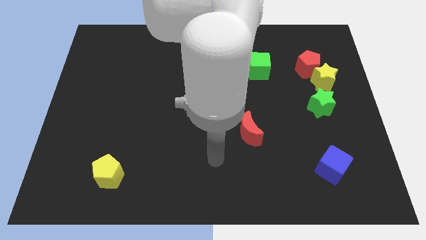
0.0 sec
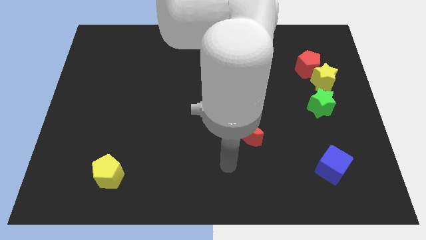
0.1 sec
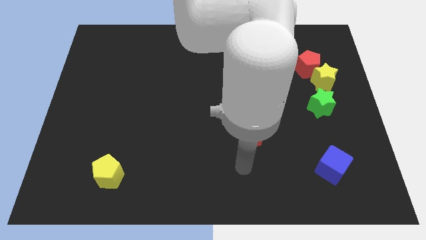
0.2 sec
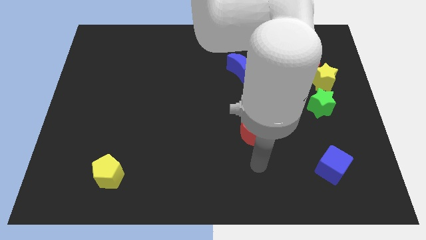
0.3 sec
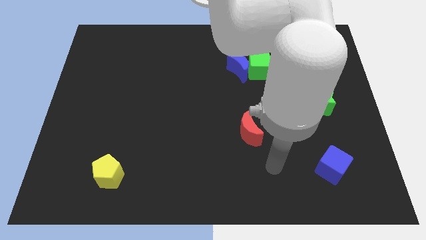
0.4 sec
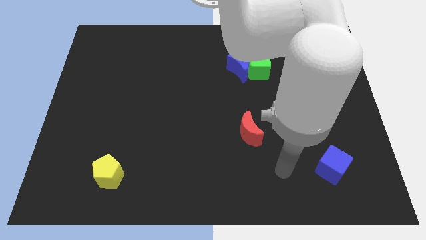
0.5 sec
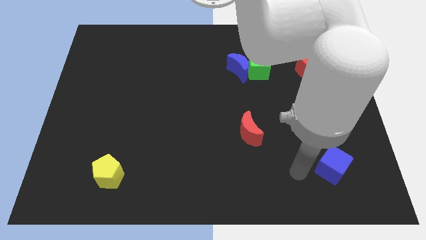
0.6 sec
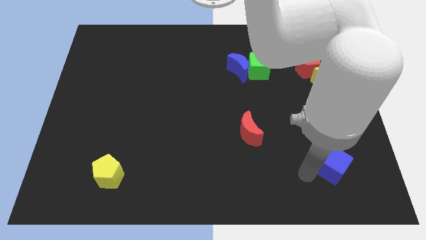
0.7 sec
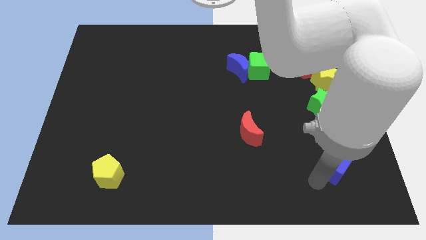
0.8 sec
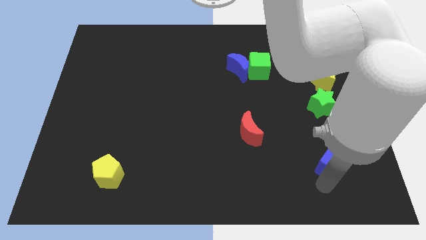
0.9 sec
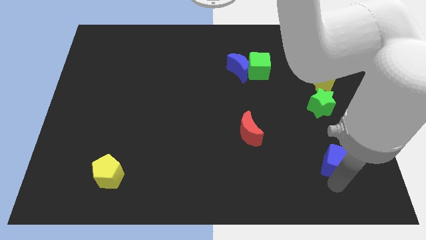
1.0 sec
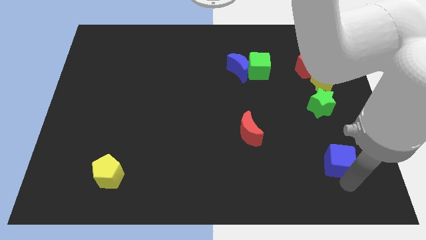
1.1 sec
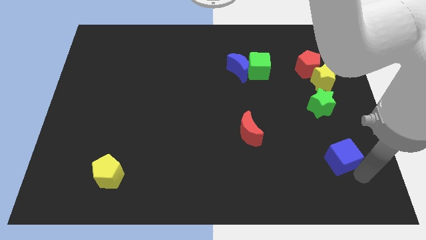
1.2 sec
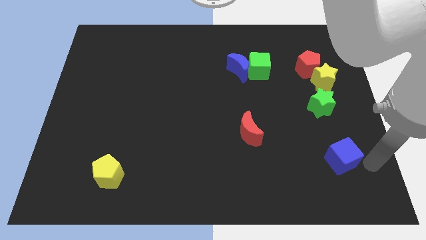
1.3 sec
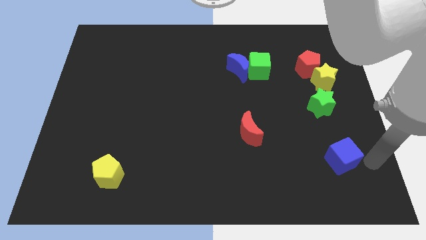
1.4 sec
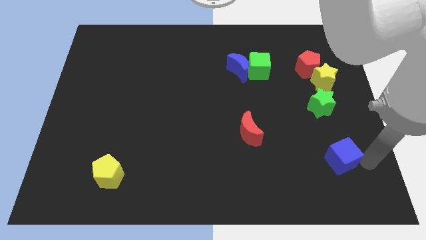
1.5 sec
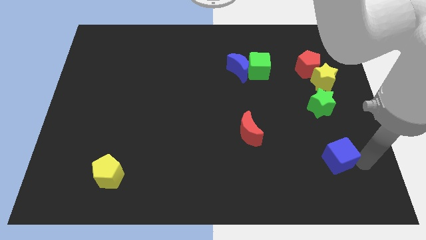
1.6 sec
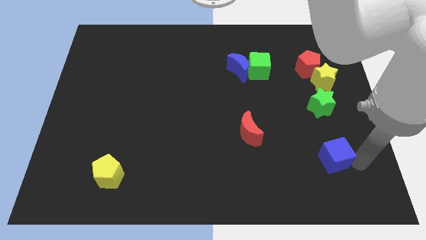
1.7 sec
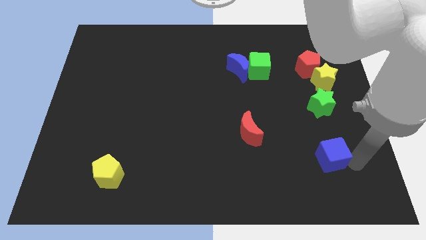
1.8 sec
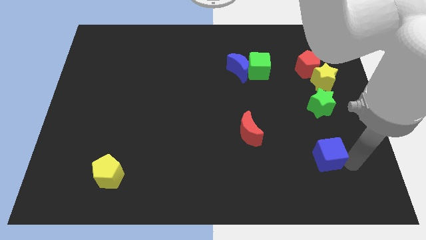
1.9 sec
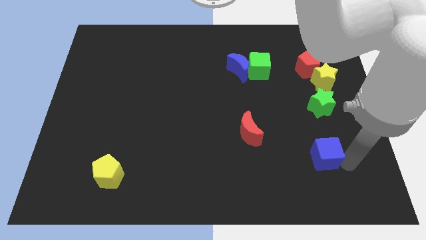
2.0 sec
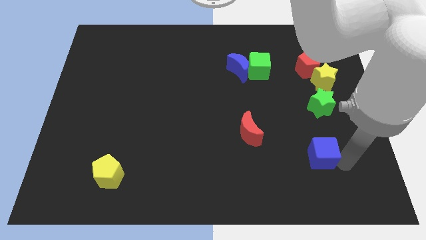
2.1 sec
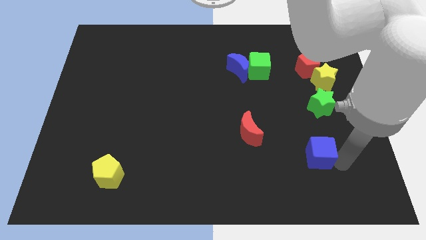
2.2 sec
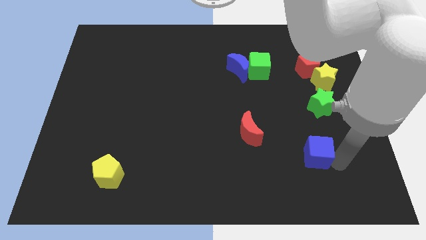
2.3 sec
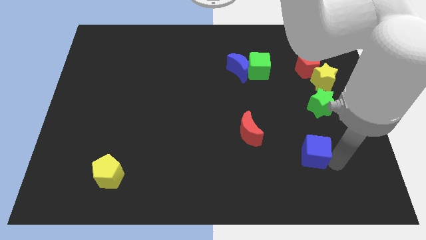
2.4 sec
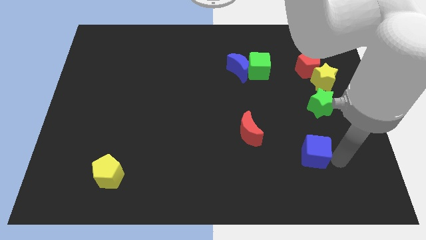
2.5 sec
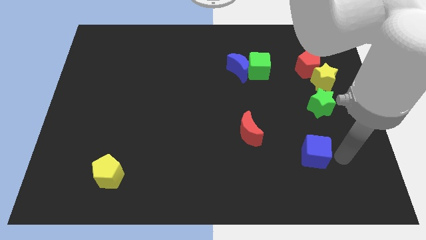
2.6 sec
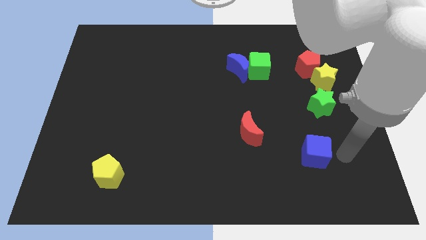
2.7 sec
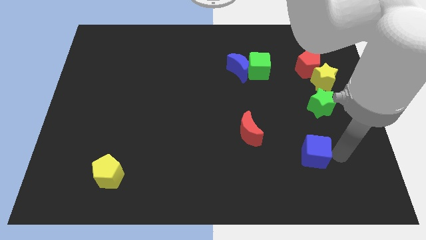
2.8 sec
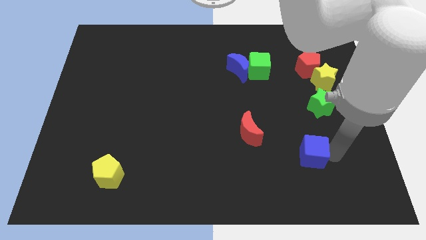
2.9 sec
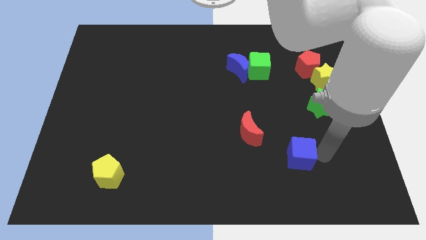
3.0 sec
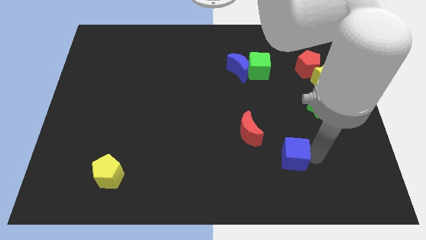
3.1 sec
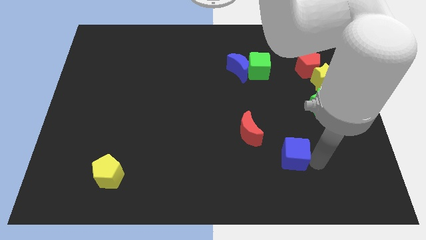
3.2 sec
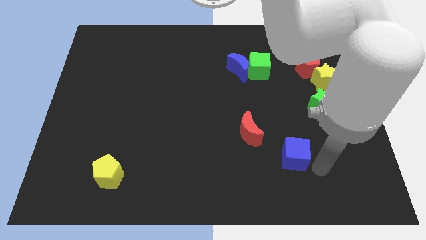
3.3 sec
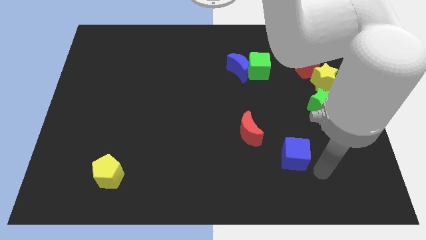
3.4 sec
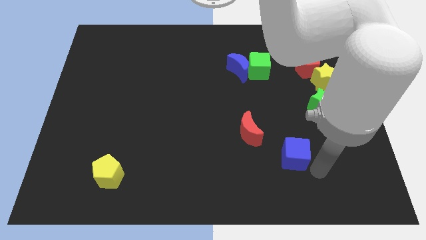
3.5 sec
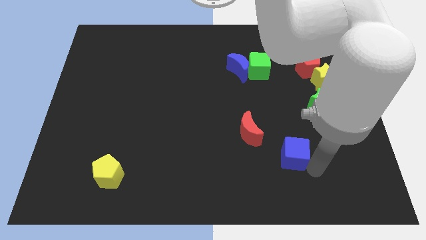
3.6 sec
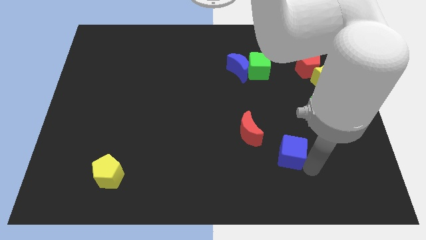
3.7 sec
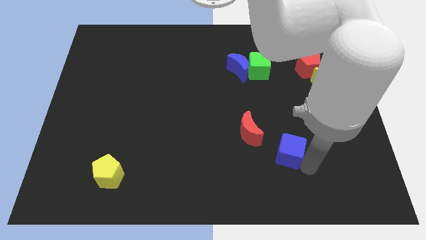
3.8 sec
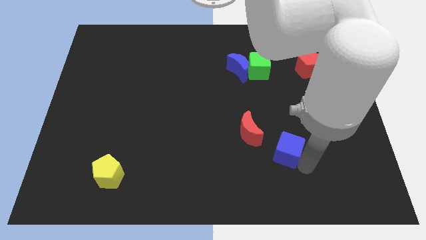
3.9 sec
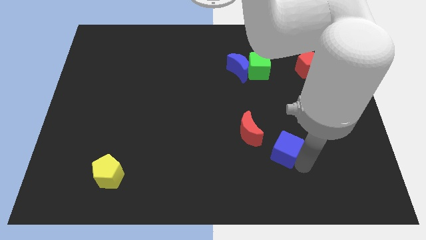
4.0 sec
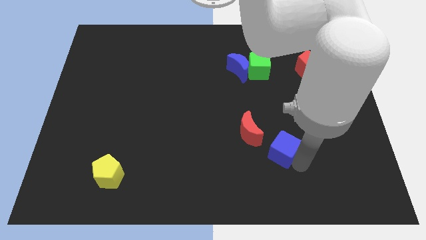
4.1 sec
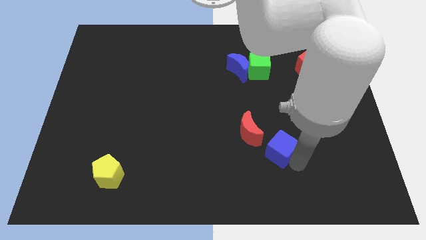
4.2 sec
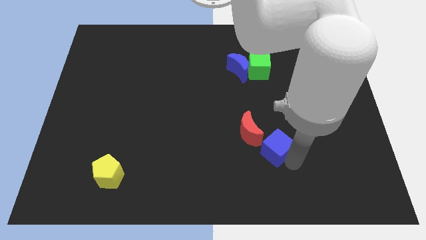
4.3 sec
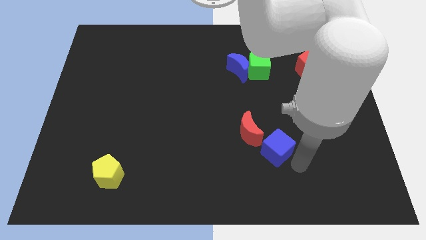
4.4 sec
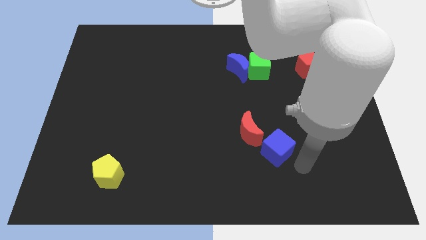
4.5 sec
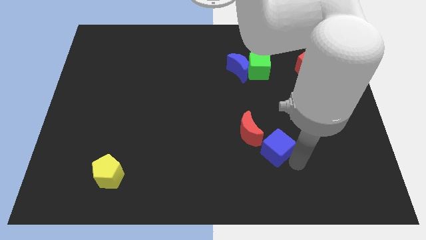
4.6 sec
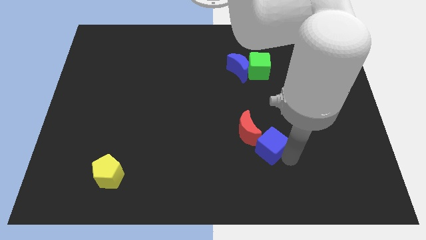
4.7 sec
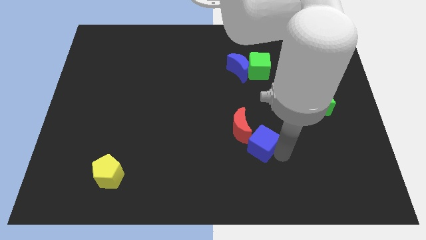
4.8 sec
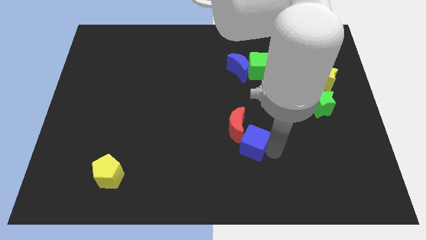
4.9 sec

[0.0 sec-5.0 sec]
push the blue cube close to the red moon

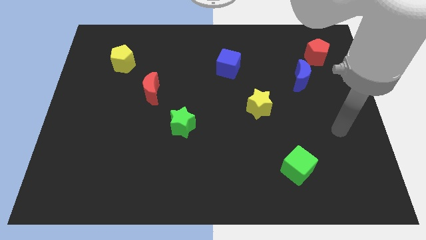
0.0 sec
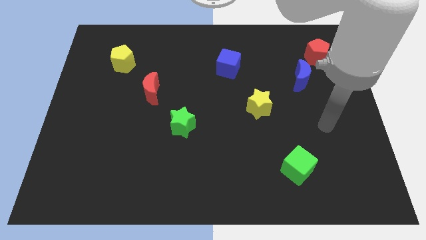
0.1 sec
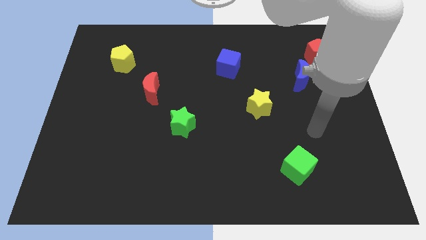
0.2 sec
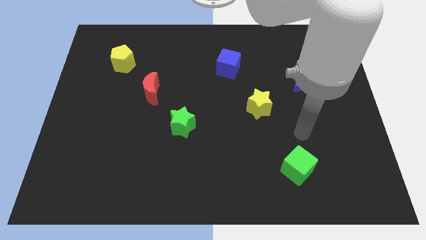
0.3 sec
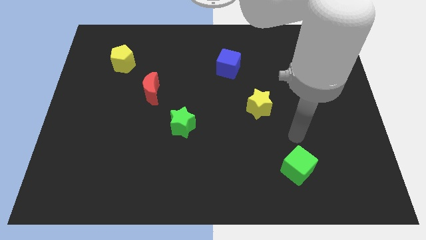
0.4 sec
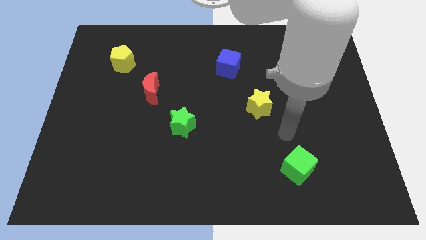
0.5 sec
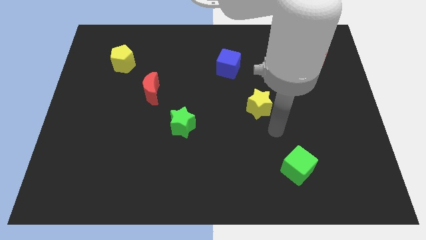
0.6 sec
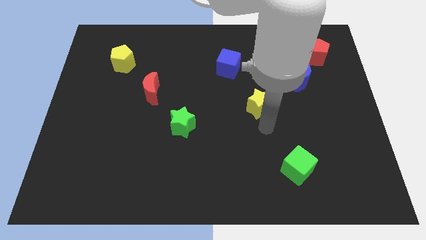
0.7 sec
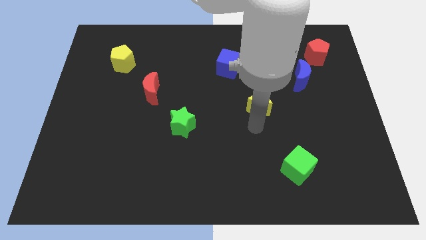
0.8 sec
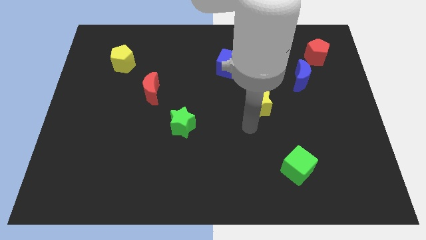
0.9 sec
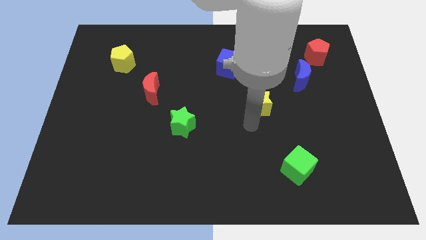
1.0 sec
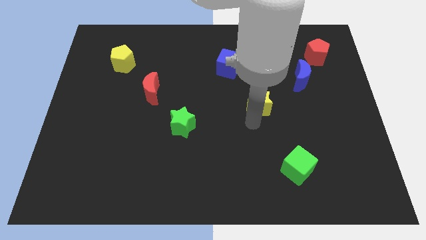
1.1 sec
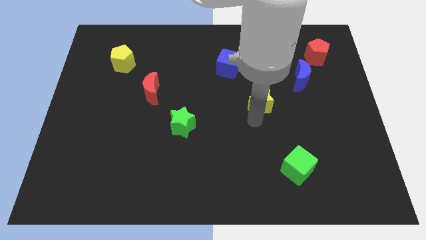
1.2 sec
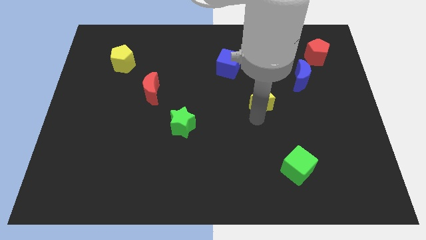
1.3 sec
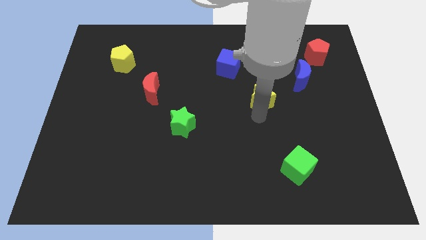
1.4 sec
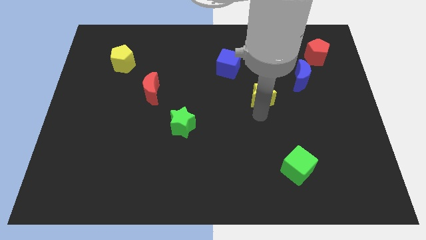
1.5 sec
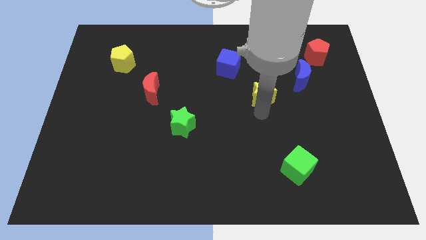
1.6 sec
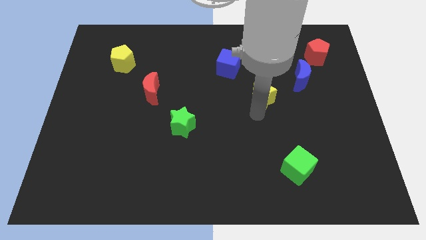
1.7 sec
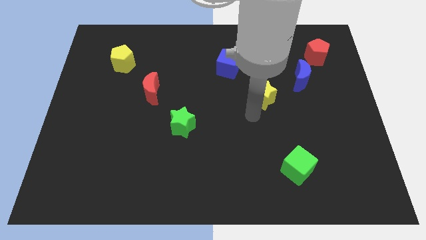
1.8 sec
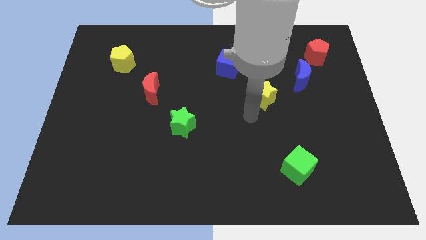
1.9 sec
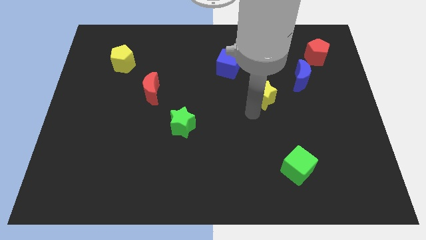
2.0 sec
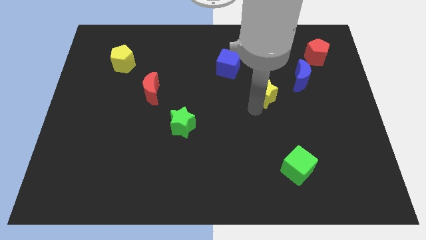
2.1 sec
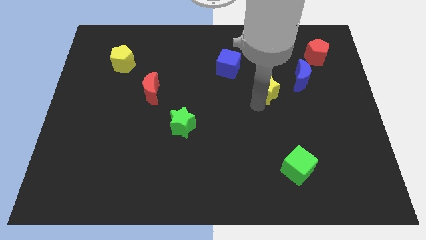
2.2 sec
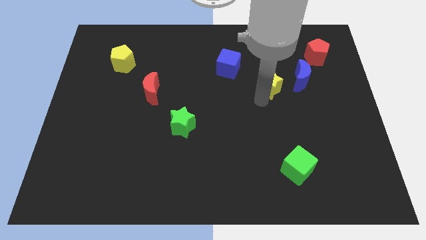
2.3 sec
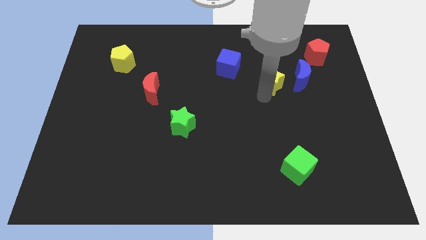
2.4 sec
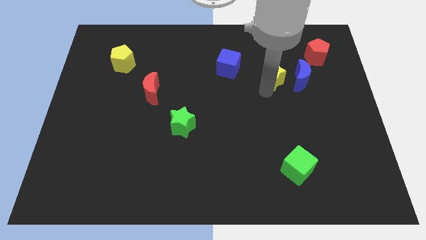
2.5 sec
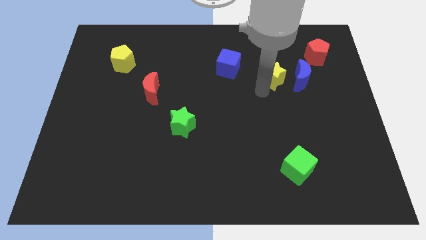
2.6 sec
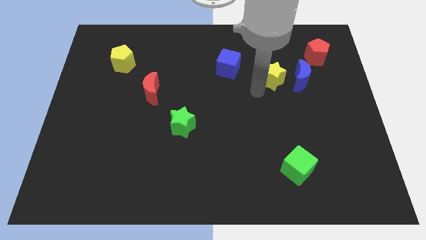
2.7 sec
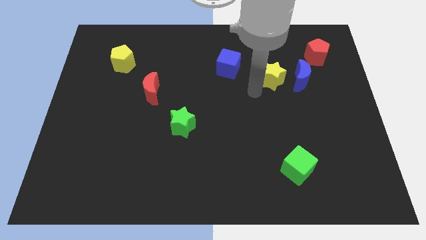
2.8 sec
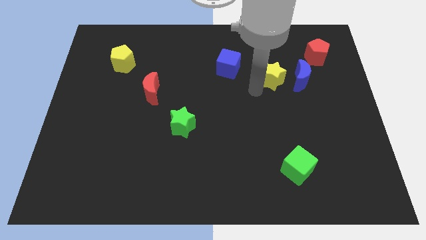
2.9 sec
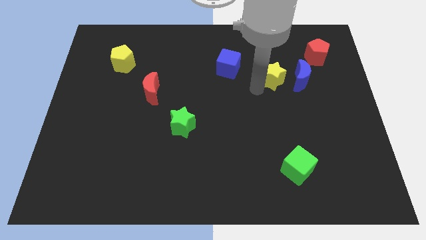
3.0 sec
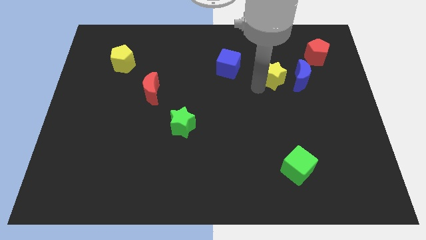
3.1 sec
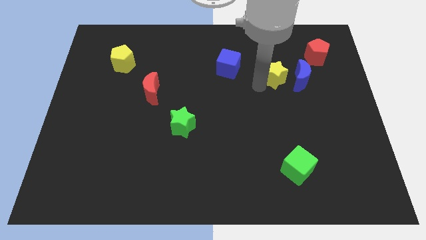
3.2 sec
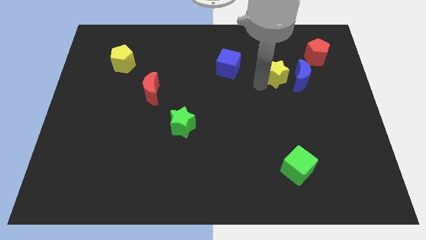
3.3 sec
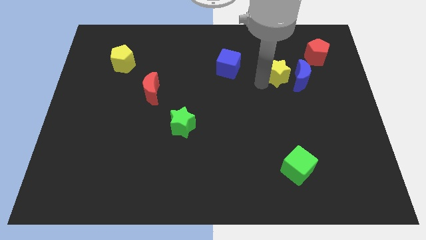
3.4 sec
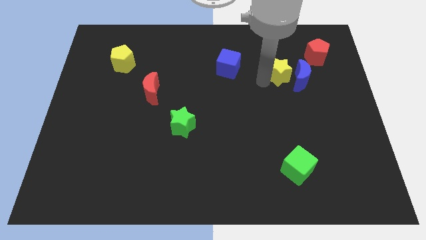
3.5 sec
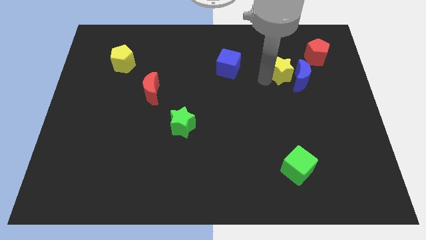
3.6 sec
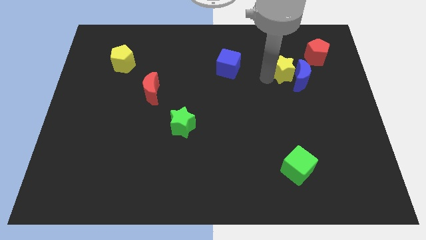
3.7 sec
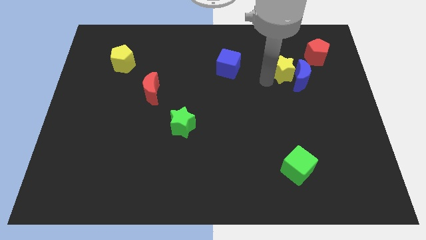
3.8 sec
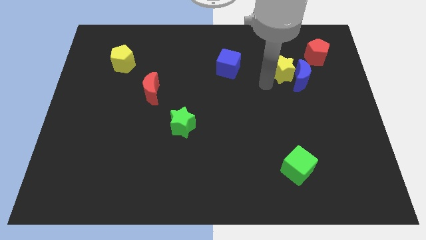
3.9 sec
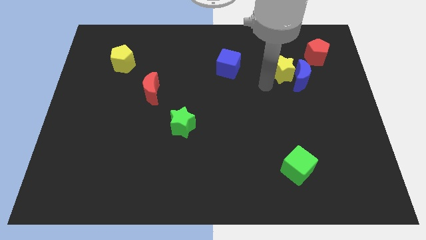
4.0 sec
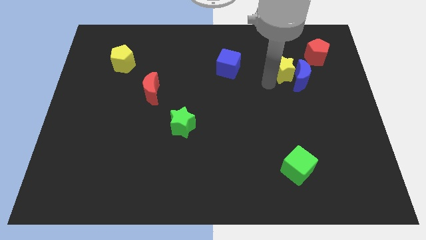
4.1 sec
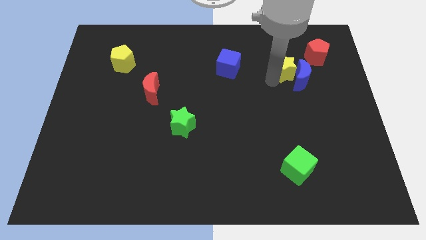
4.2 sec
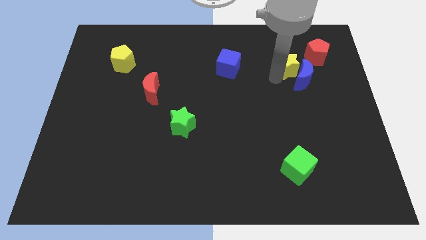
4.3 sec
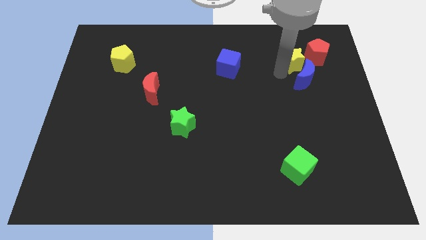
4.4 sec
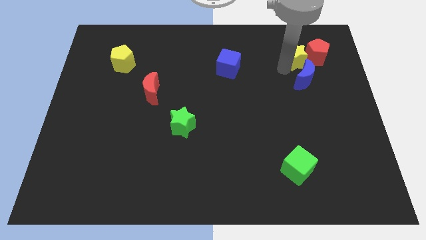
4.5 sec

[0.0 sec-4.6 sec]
put the yellow star next to the red pentagon
